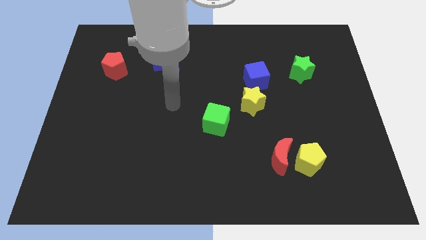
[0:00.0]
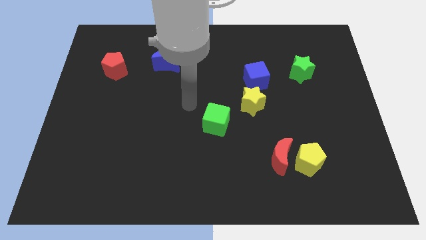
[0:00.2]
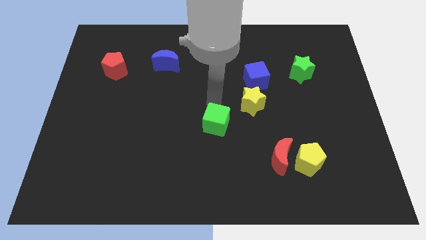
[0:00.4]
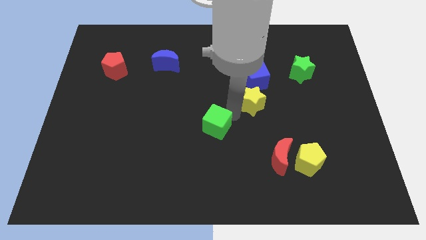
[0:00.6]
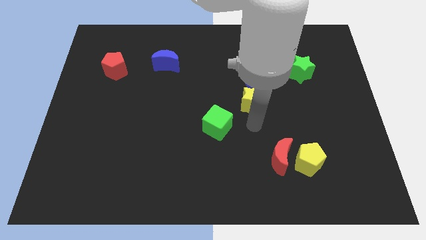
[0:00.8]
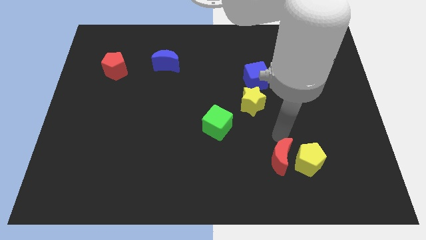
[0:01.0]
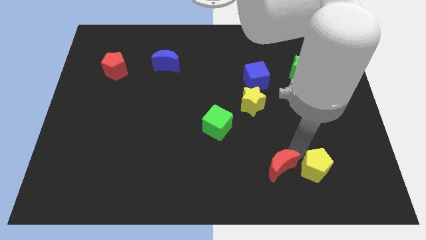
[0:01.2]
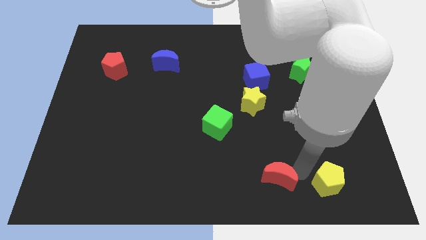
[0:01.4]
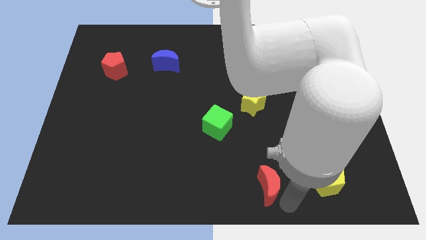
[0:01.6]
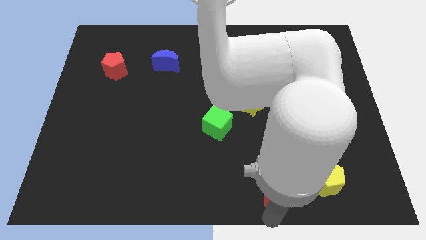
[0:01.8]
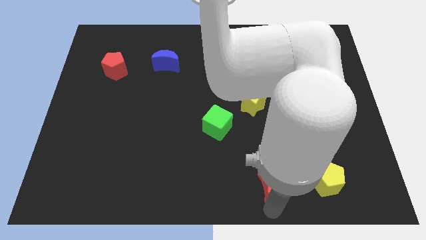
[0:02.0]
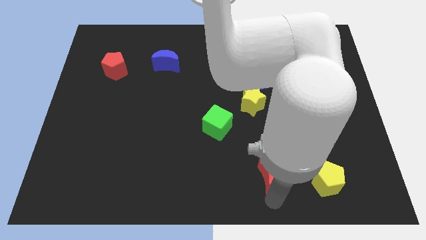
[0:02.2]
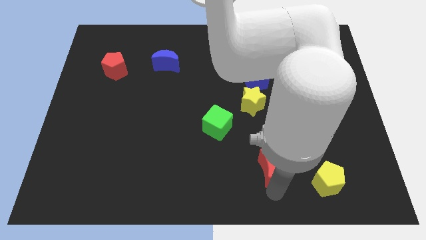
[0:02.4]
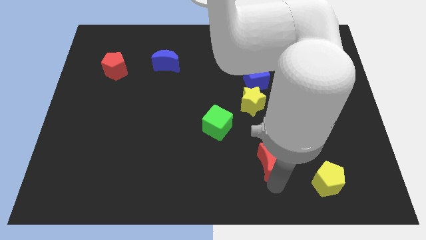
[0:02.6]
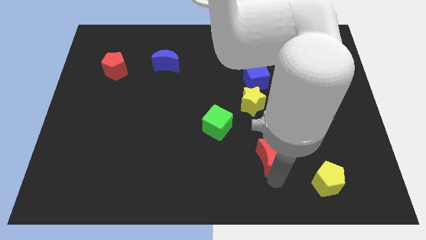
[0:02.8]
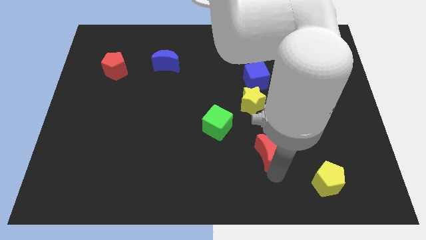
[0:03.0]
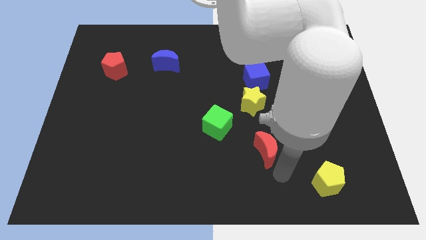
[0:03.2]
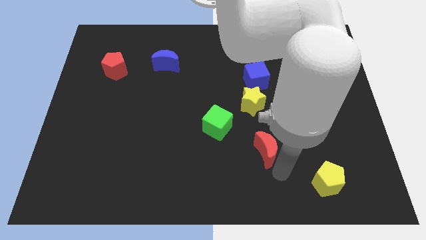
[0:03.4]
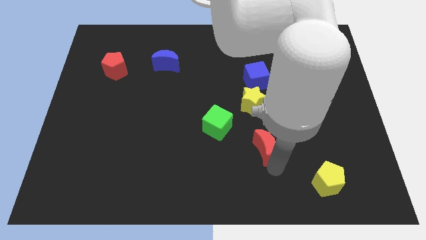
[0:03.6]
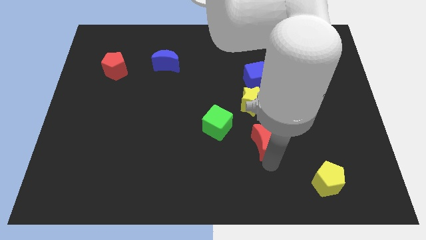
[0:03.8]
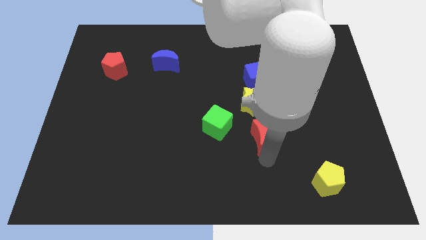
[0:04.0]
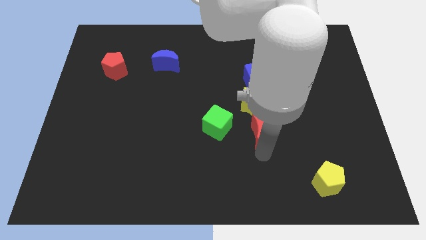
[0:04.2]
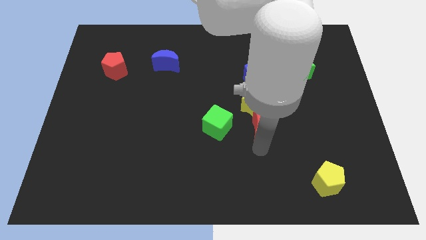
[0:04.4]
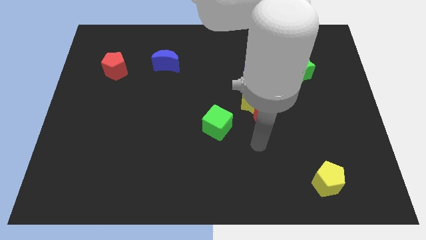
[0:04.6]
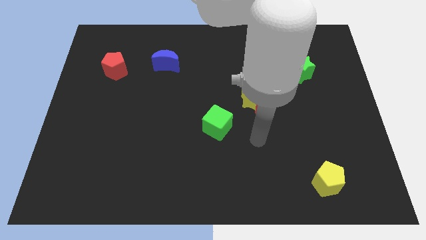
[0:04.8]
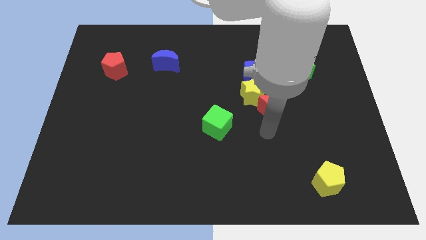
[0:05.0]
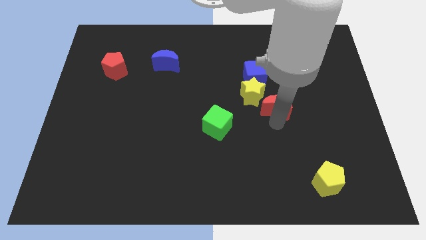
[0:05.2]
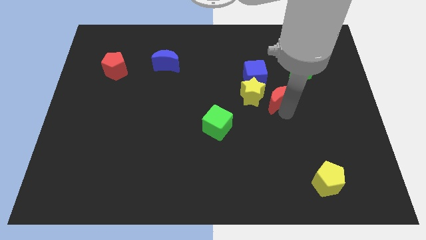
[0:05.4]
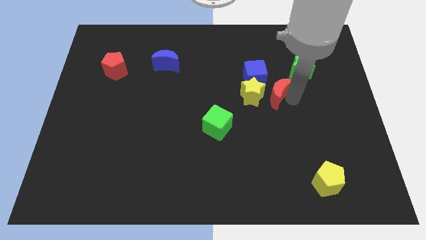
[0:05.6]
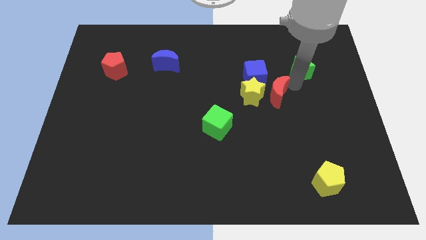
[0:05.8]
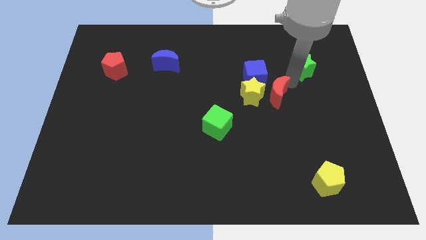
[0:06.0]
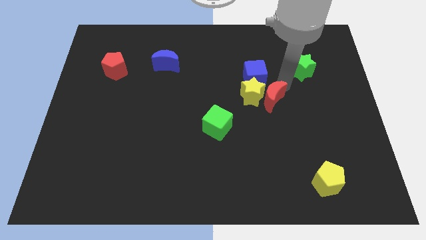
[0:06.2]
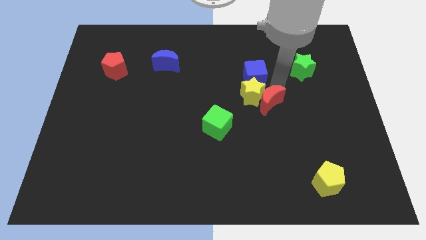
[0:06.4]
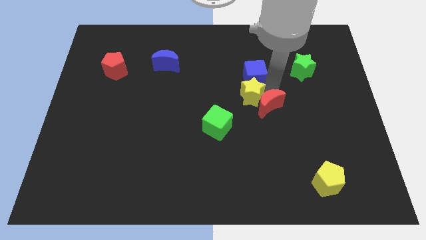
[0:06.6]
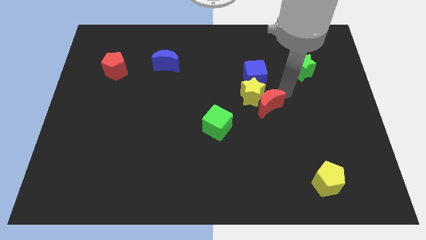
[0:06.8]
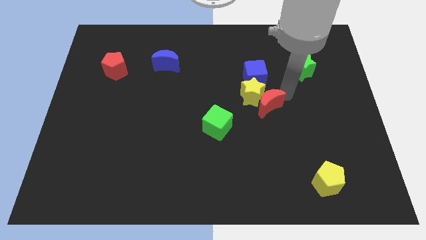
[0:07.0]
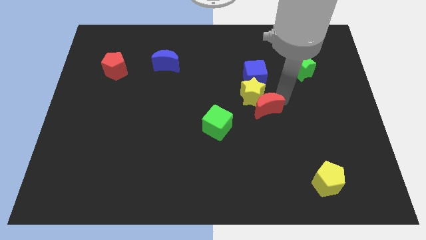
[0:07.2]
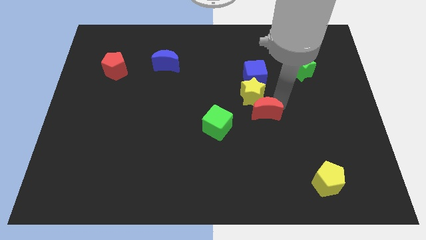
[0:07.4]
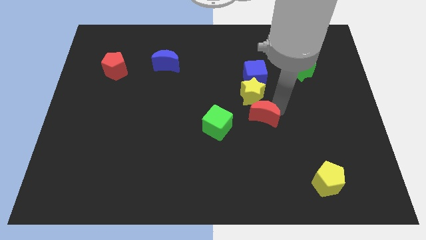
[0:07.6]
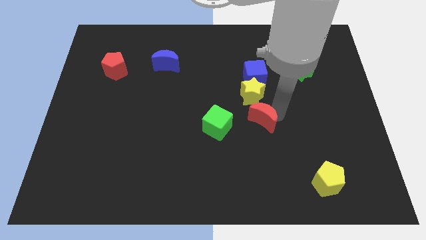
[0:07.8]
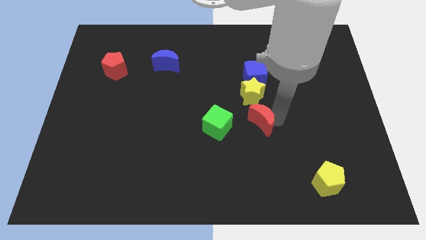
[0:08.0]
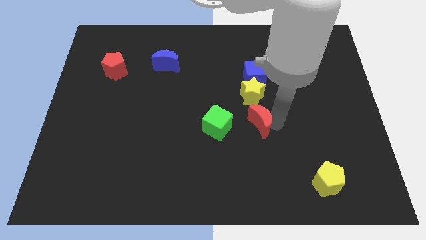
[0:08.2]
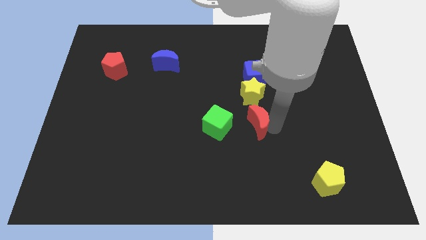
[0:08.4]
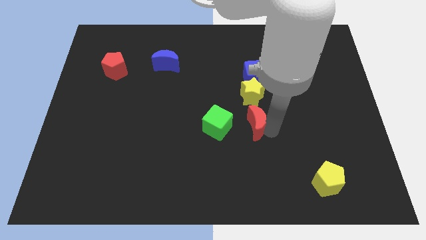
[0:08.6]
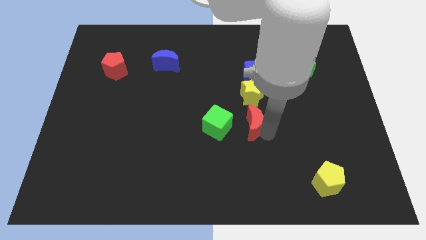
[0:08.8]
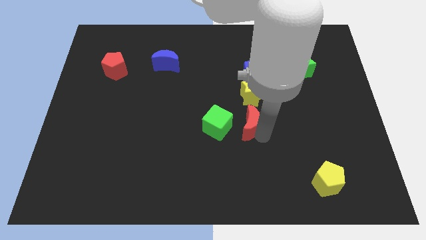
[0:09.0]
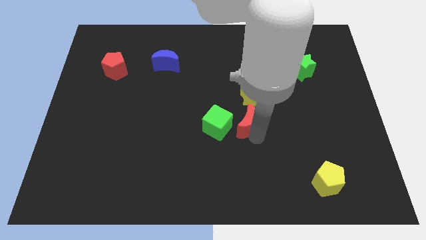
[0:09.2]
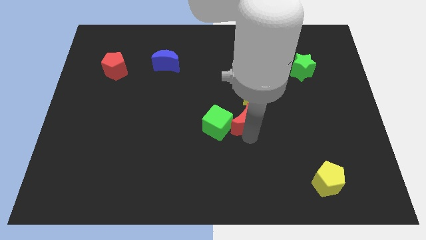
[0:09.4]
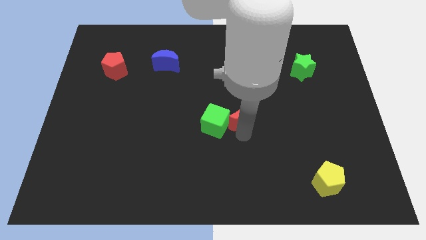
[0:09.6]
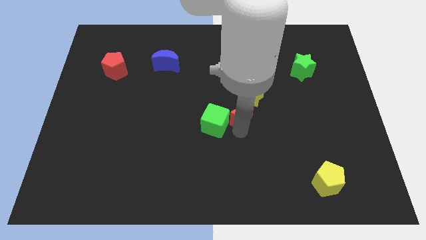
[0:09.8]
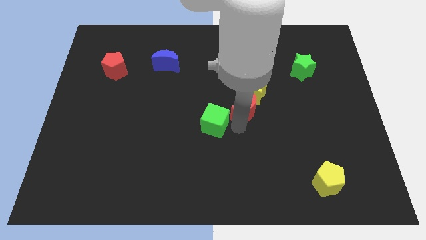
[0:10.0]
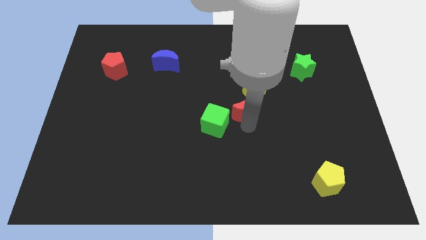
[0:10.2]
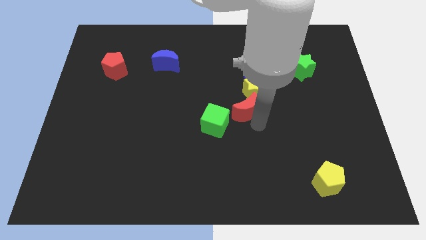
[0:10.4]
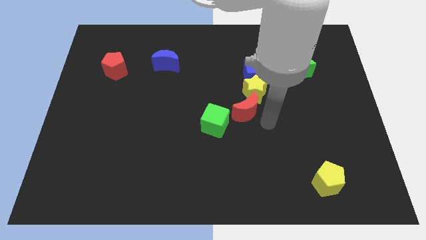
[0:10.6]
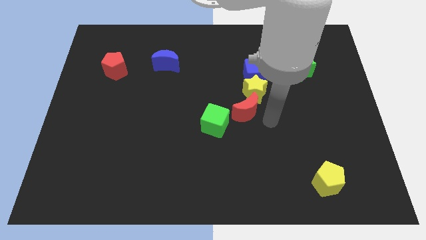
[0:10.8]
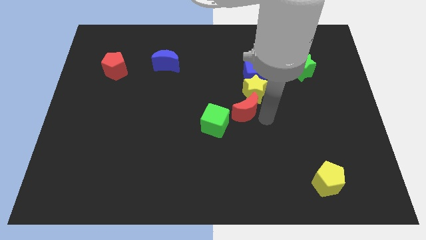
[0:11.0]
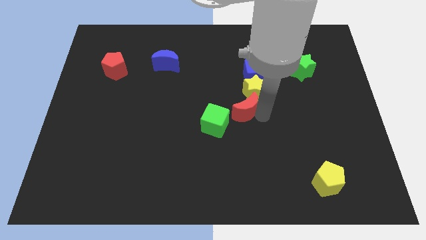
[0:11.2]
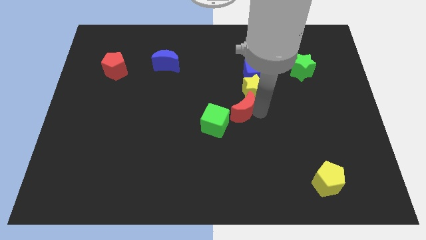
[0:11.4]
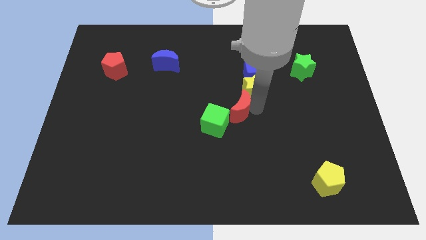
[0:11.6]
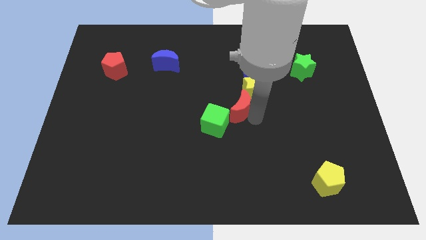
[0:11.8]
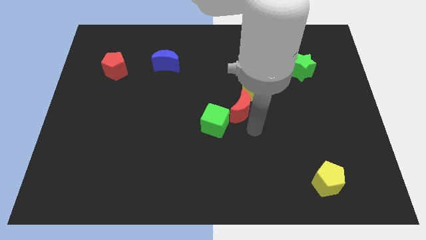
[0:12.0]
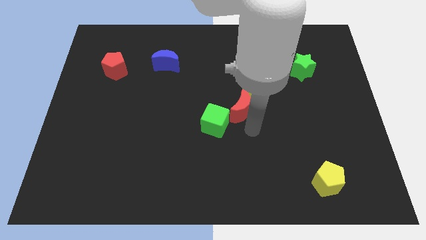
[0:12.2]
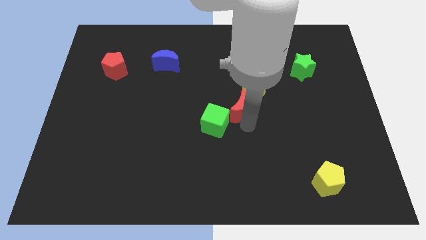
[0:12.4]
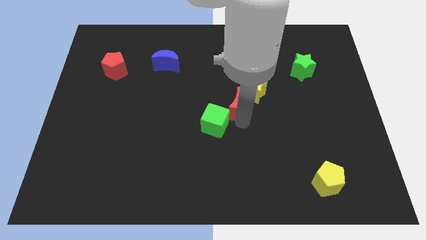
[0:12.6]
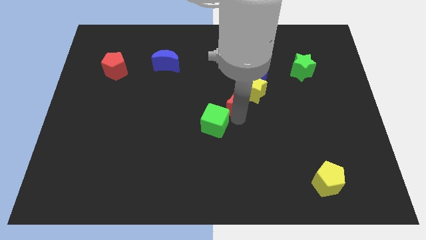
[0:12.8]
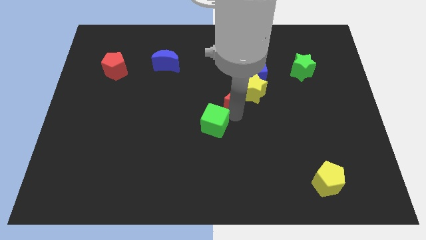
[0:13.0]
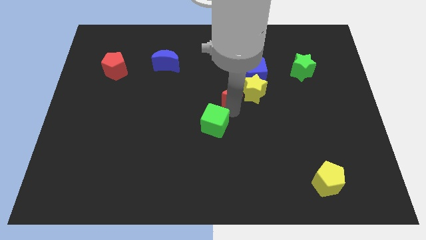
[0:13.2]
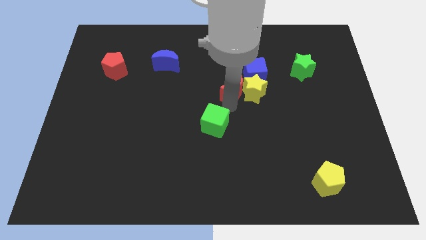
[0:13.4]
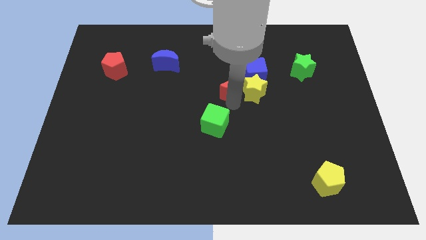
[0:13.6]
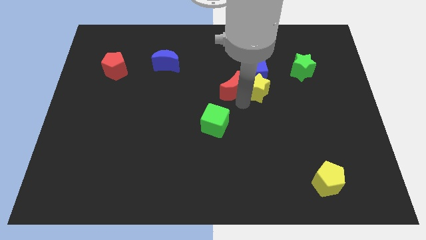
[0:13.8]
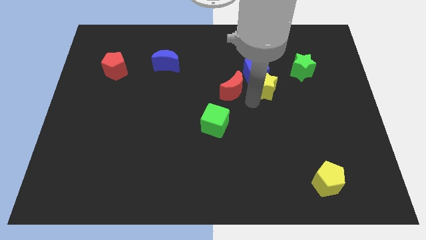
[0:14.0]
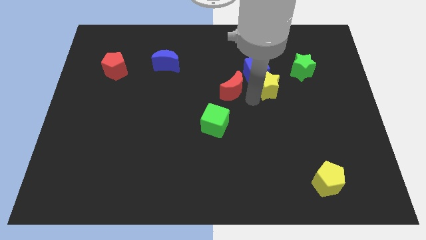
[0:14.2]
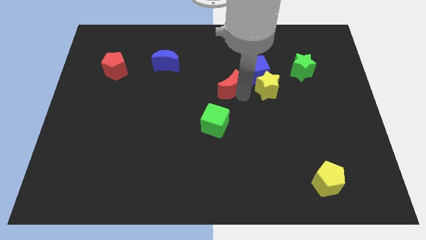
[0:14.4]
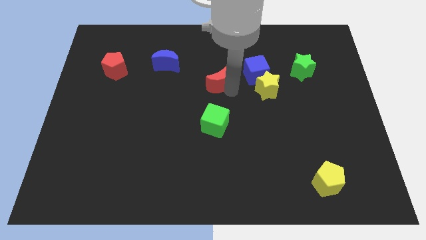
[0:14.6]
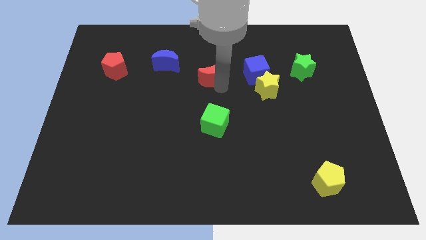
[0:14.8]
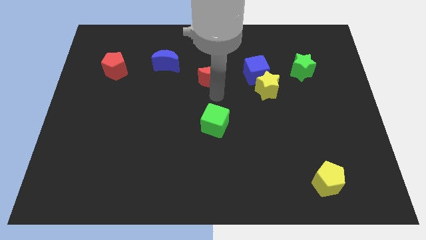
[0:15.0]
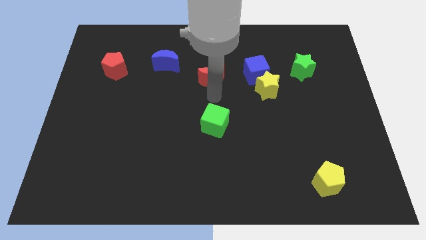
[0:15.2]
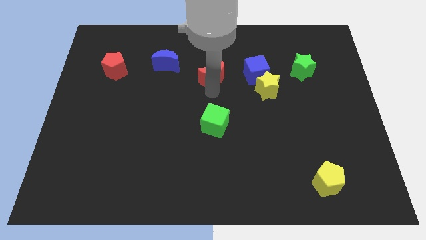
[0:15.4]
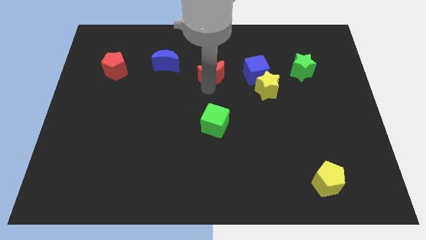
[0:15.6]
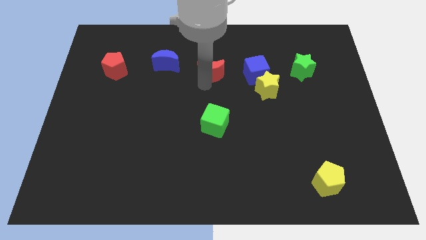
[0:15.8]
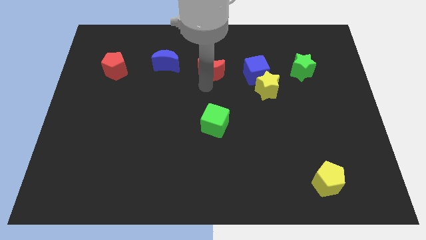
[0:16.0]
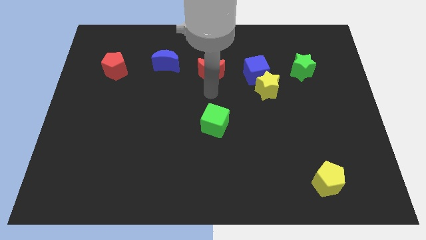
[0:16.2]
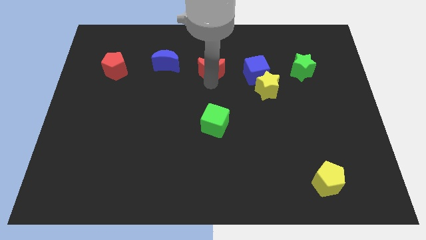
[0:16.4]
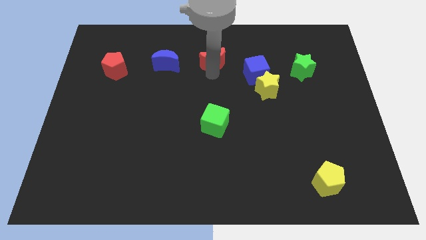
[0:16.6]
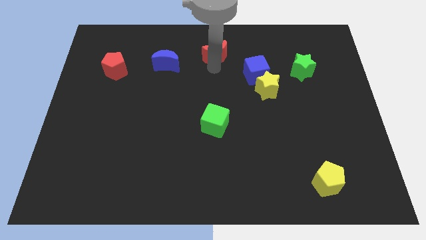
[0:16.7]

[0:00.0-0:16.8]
slide the red moon to the top
